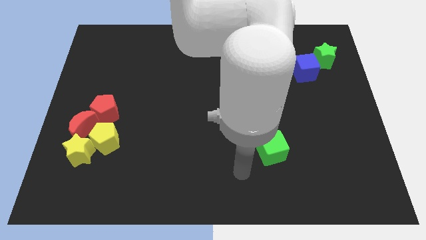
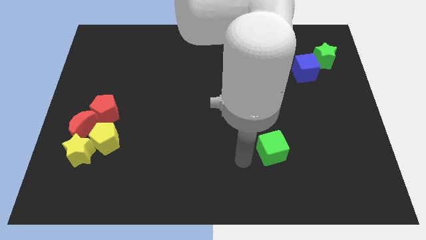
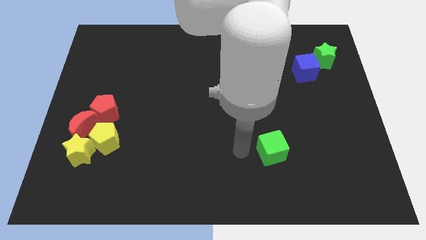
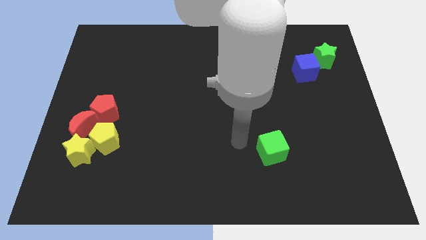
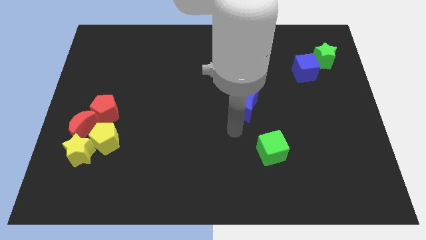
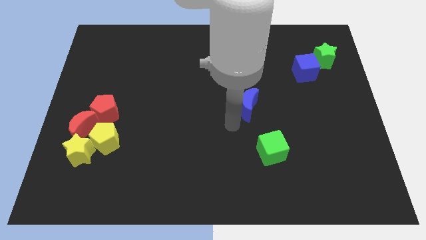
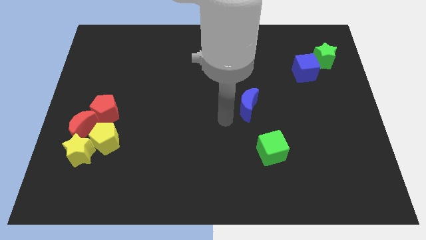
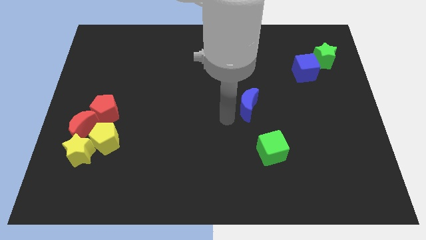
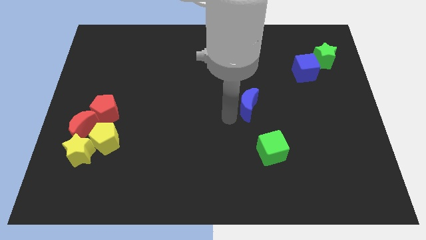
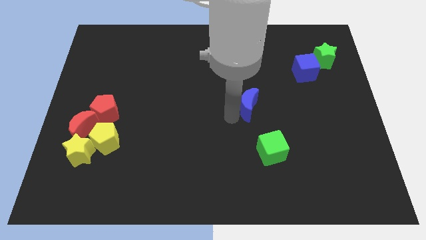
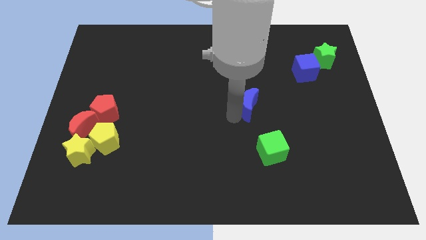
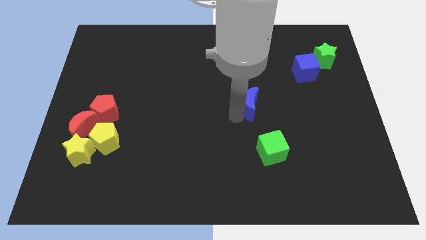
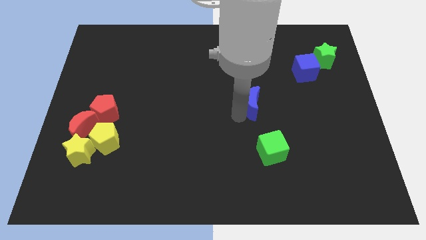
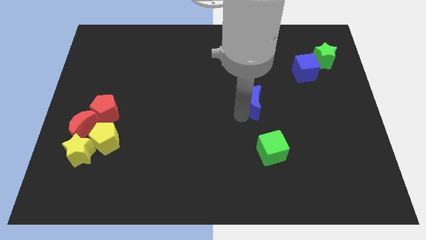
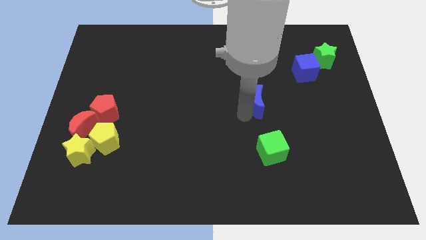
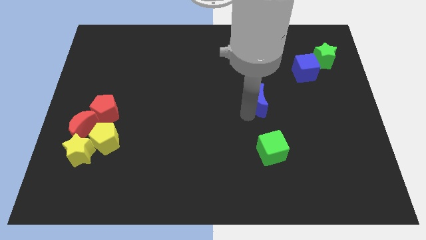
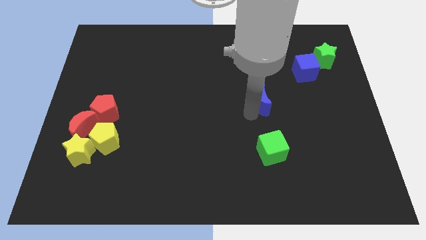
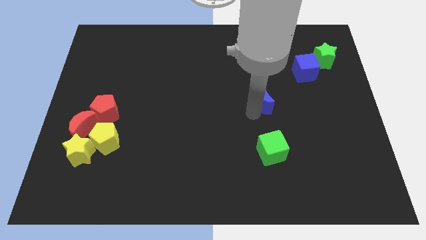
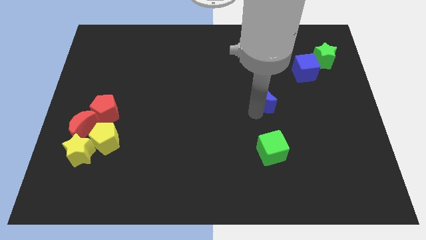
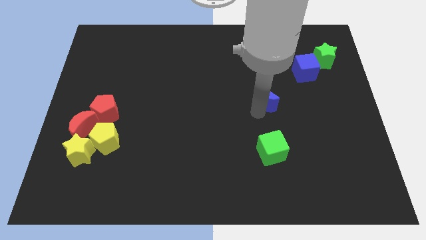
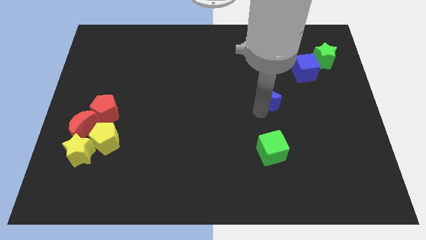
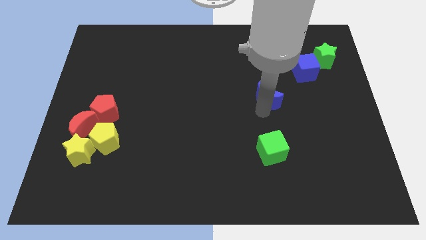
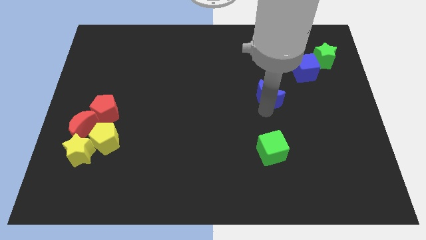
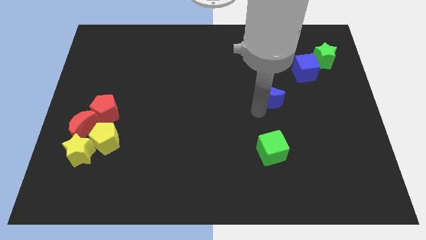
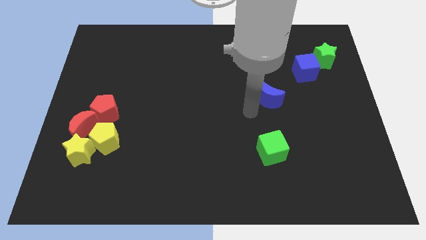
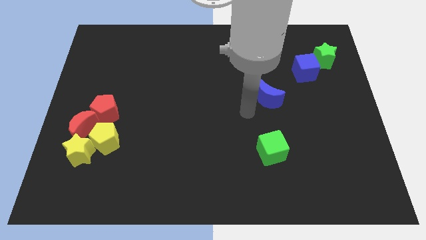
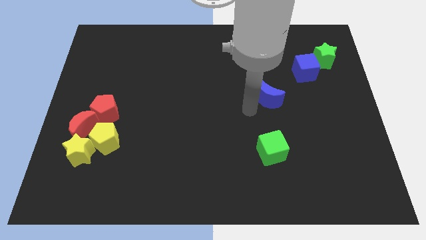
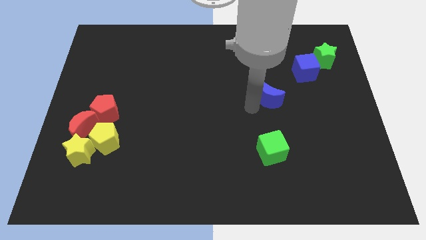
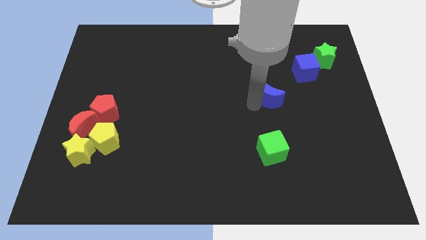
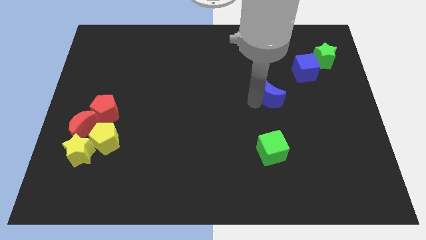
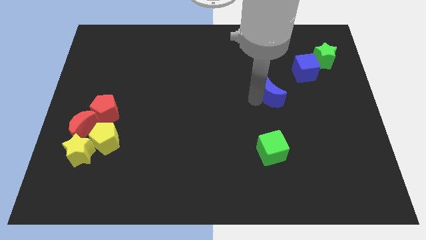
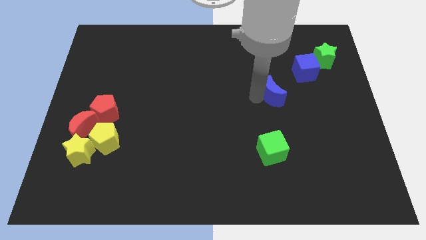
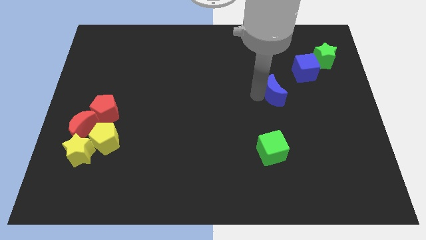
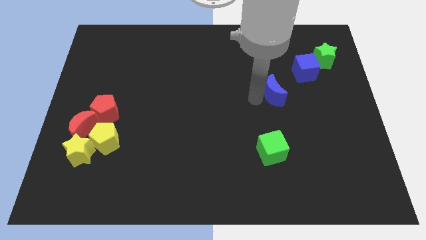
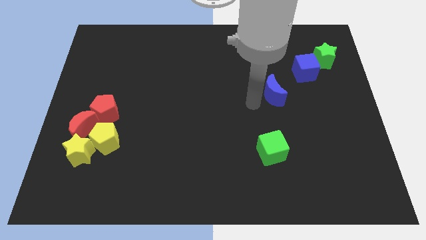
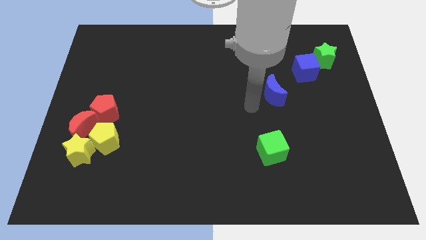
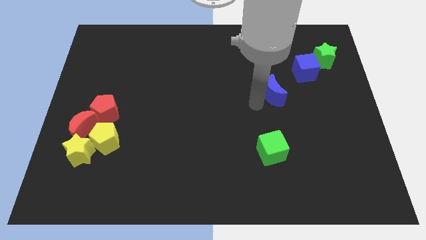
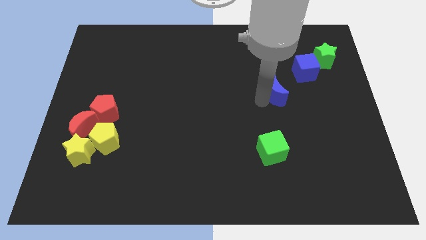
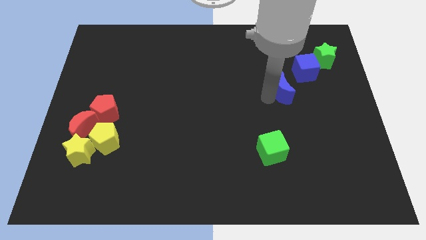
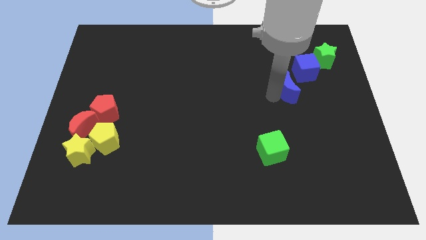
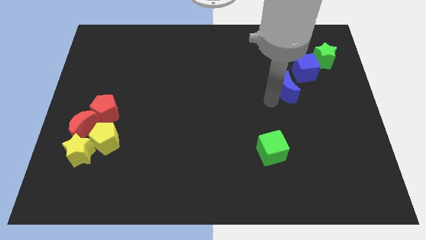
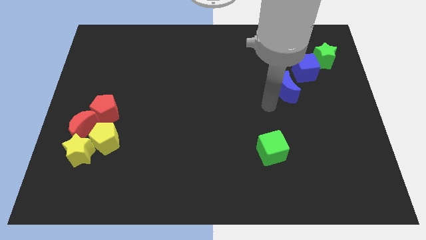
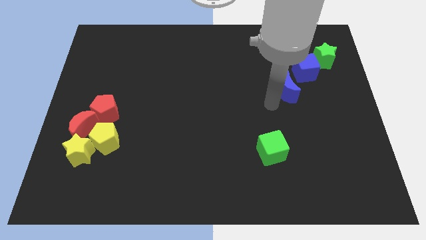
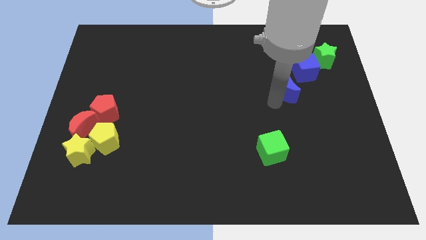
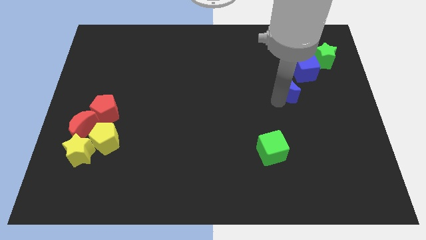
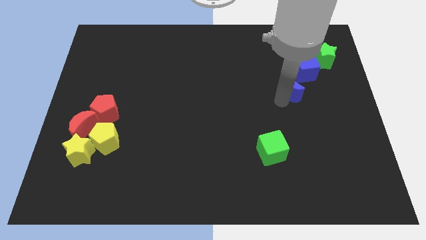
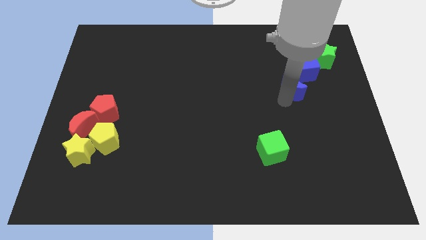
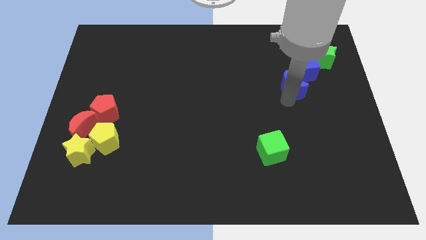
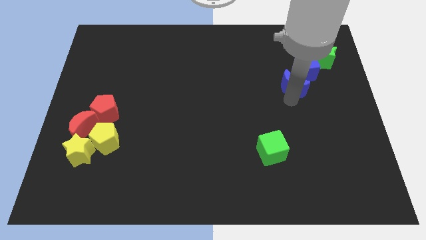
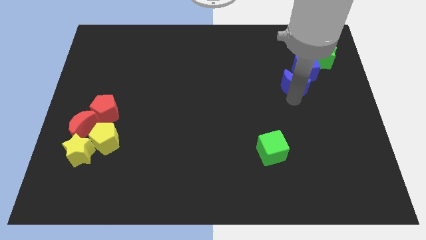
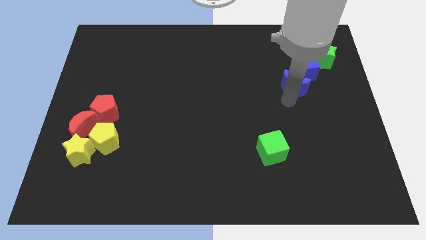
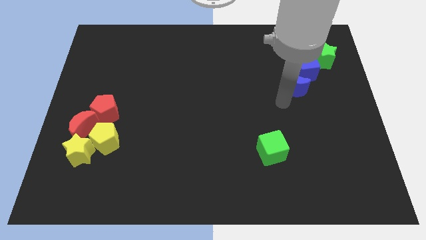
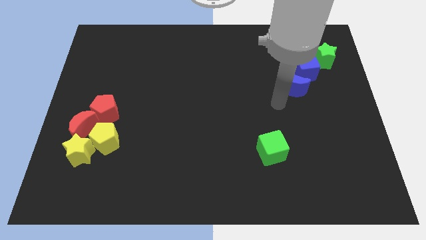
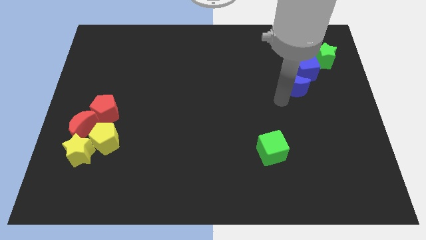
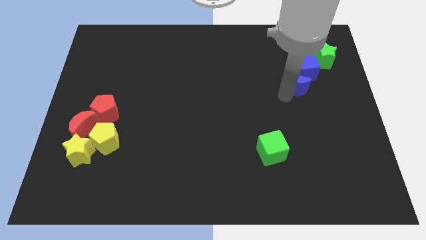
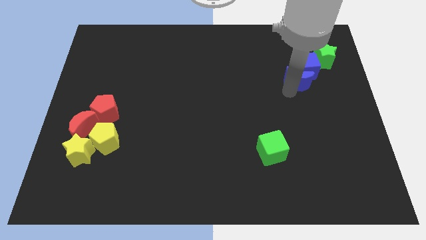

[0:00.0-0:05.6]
push the blue moon to the bottom left of the green star

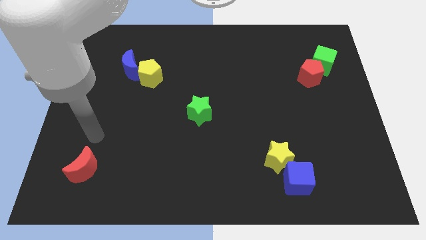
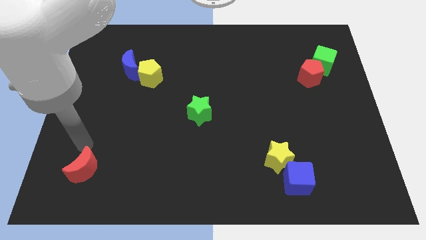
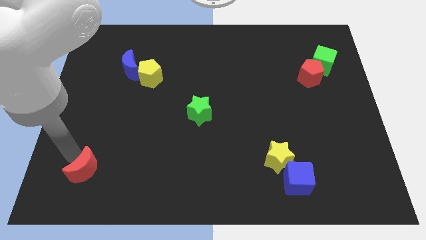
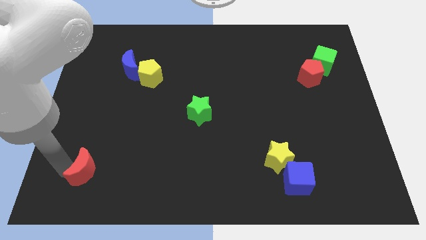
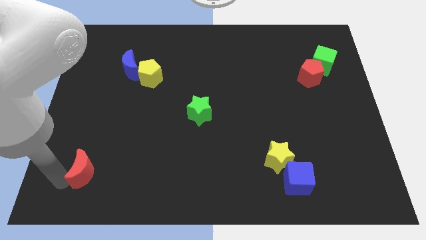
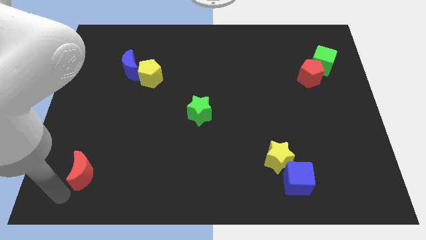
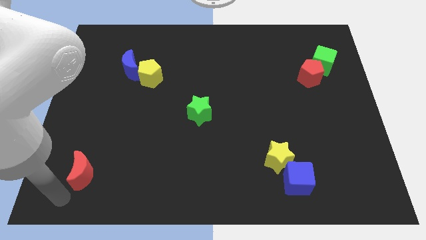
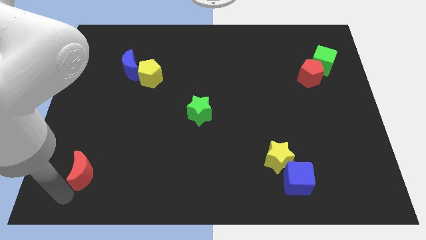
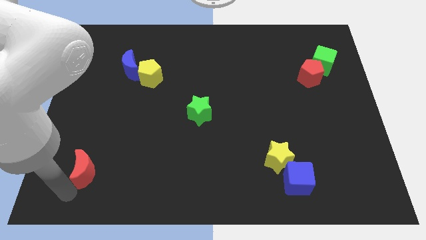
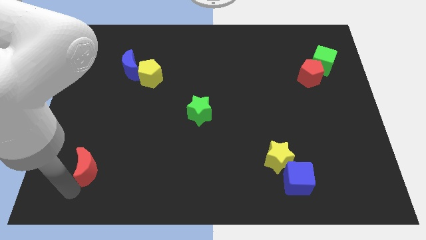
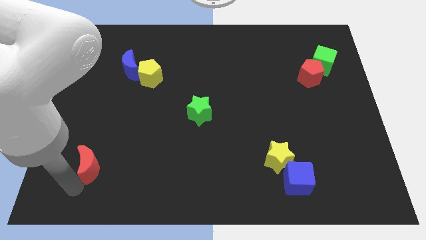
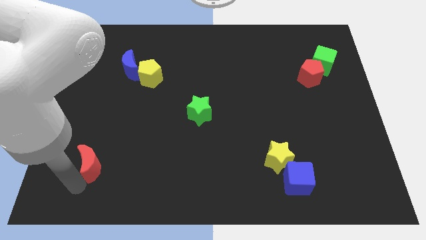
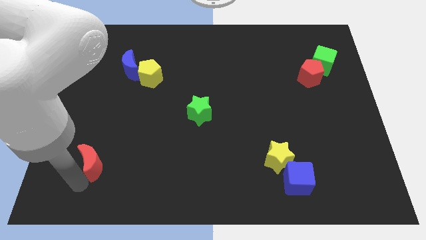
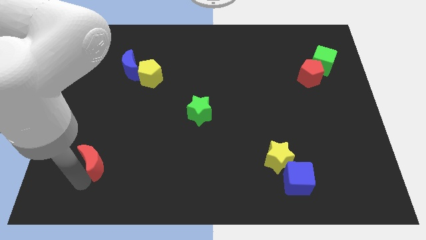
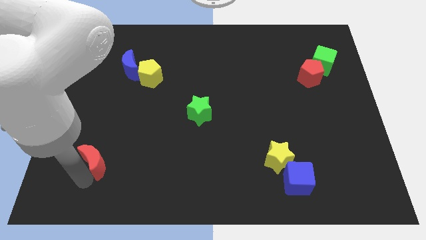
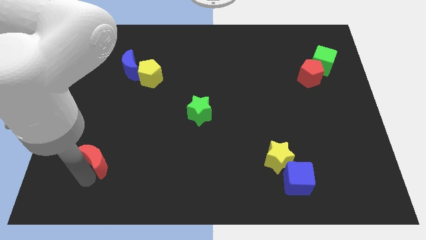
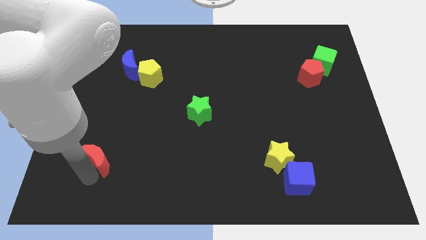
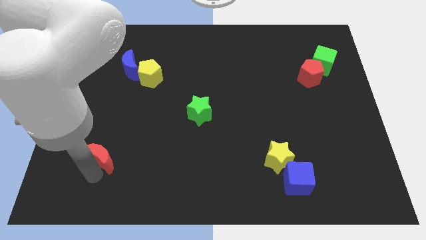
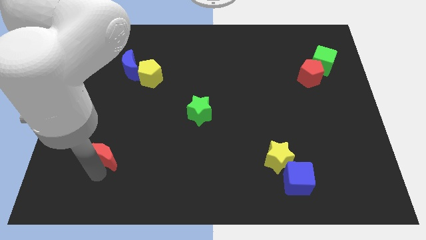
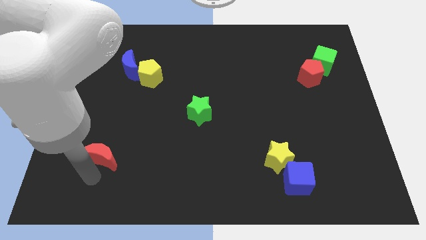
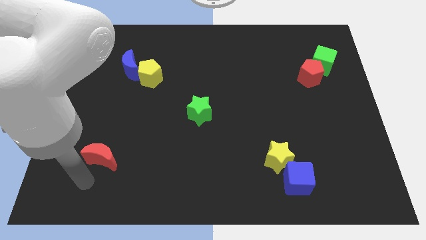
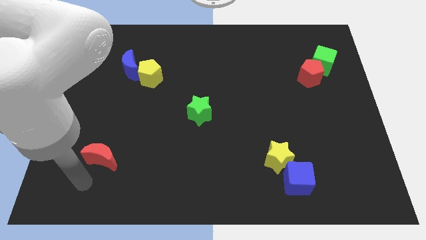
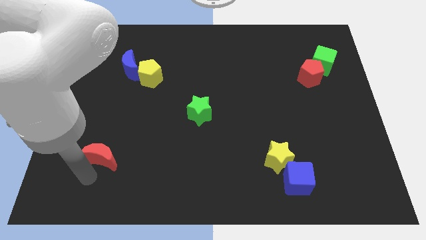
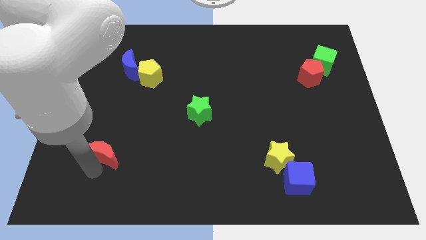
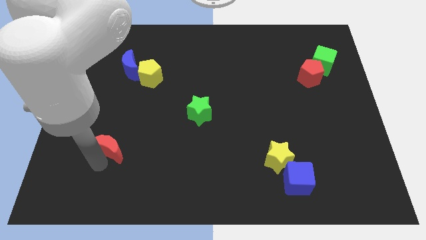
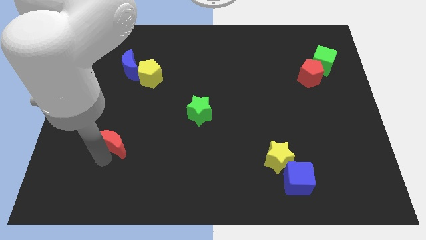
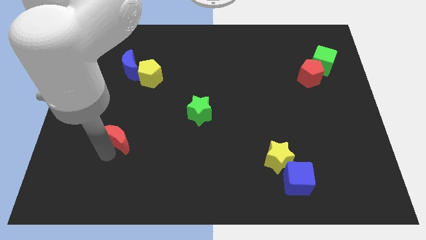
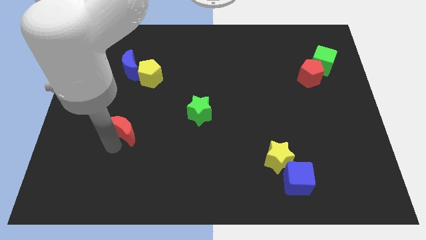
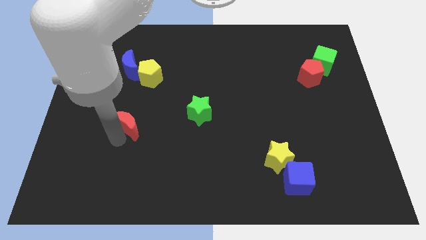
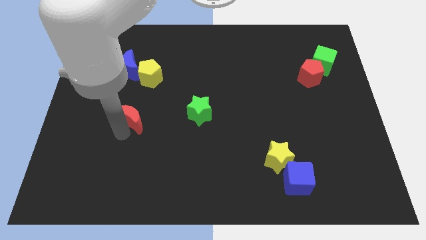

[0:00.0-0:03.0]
put the red moon to the bottom side of the yellow pentagon
